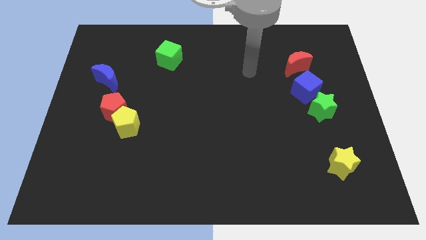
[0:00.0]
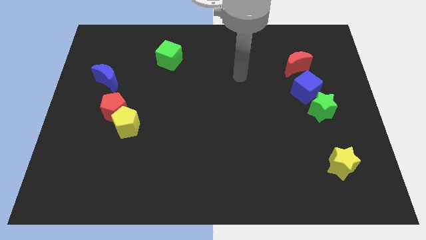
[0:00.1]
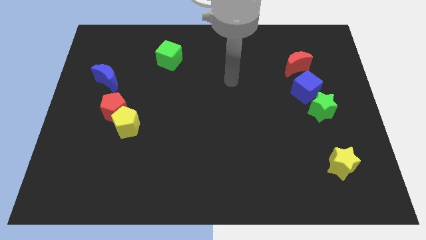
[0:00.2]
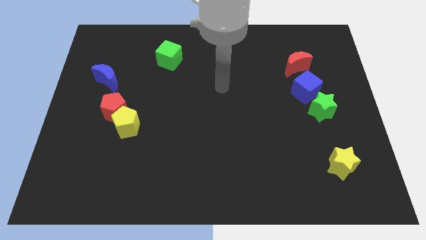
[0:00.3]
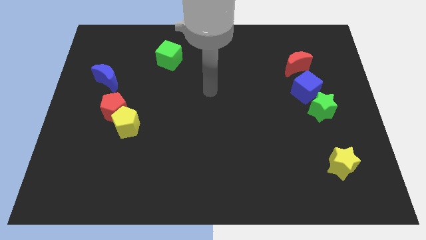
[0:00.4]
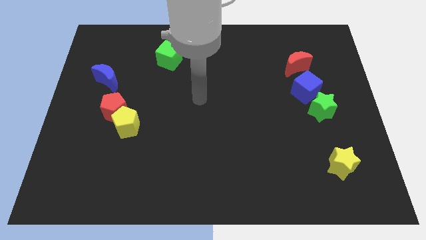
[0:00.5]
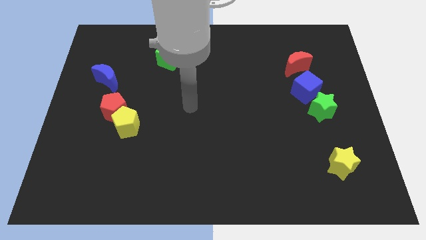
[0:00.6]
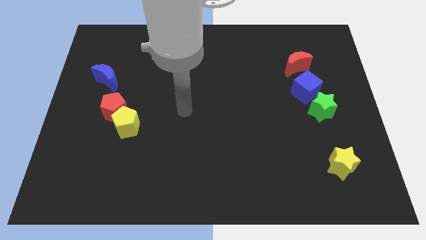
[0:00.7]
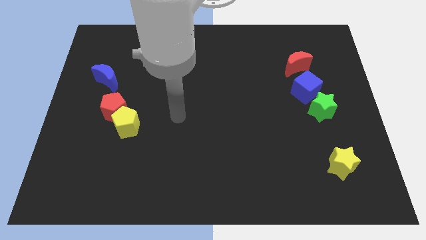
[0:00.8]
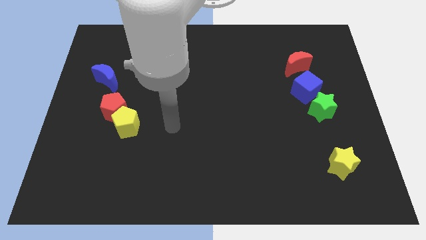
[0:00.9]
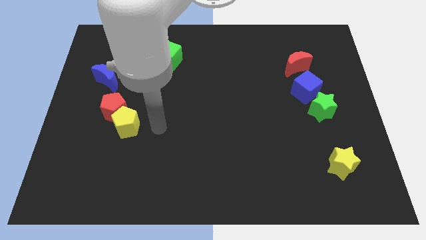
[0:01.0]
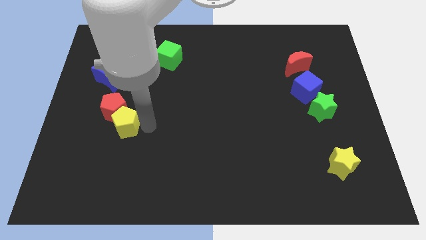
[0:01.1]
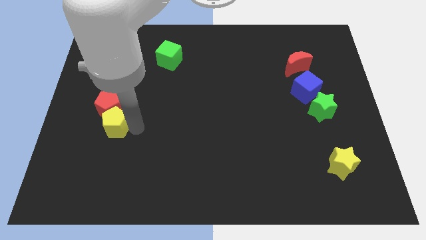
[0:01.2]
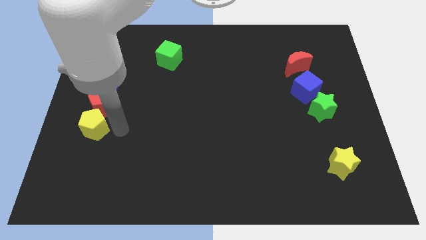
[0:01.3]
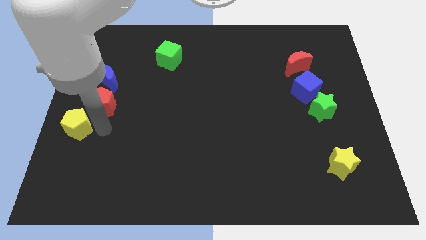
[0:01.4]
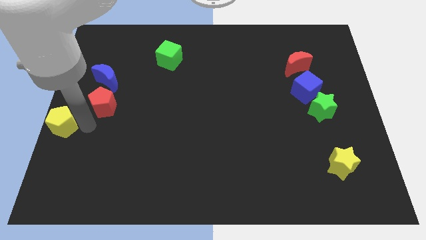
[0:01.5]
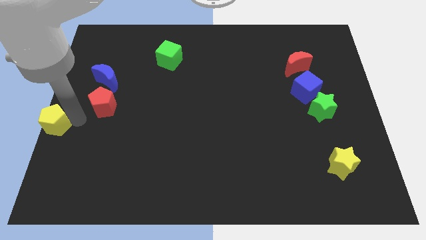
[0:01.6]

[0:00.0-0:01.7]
pull the red pentagon apart from the yellow pentagon

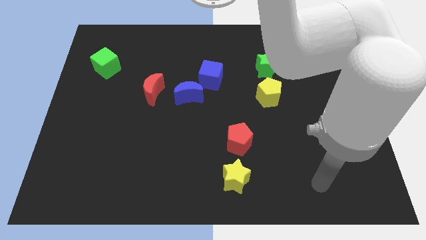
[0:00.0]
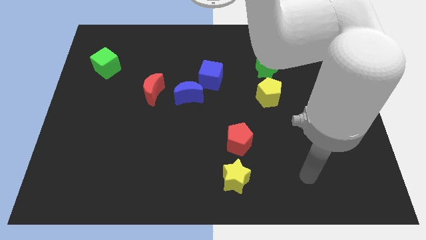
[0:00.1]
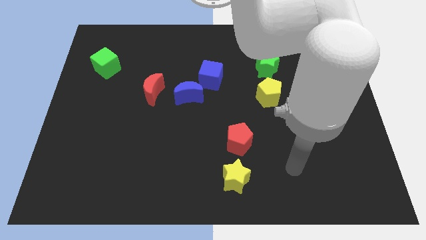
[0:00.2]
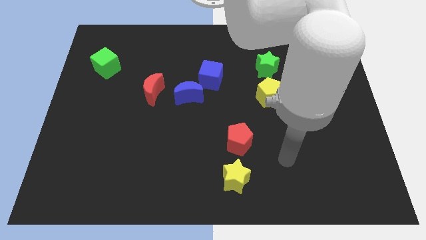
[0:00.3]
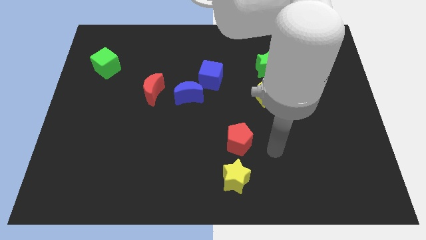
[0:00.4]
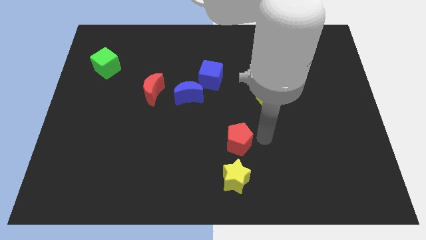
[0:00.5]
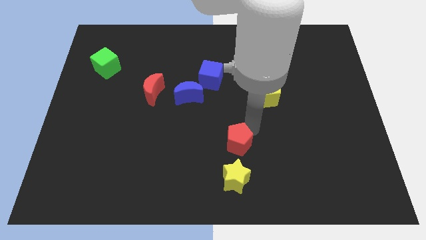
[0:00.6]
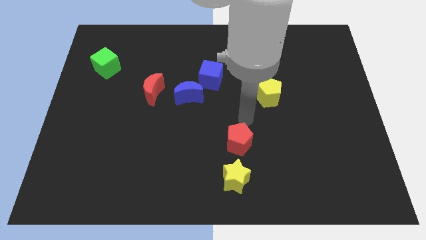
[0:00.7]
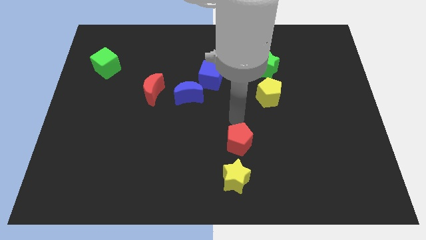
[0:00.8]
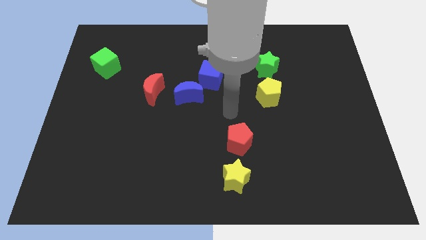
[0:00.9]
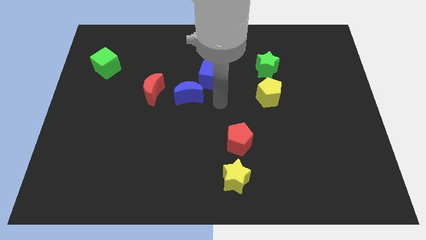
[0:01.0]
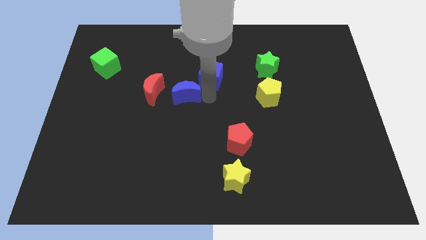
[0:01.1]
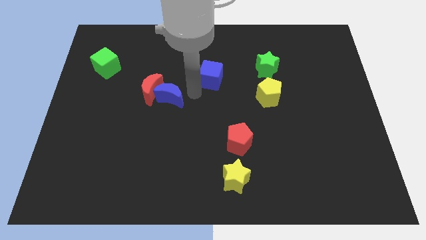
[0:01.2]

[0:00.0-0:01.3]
pull the blue cube apart from the blue moon

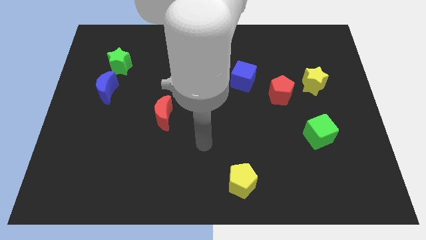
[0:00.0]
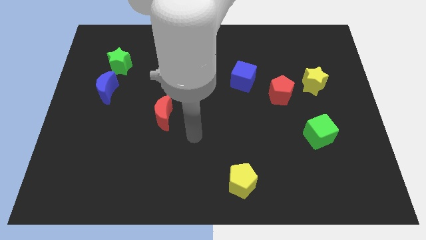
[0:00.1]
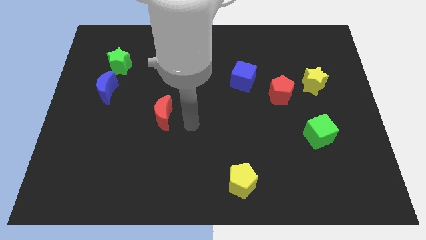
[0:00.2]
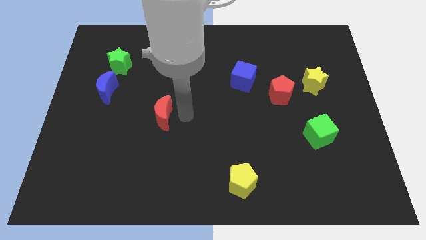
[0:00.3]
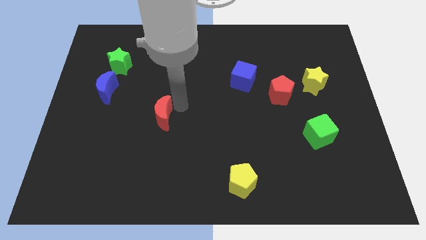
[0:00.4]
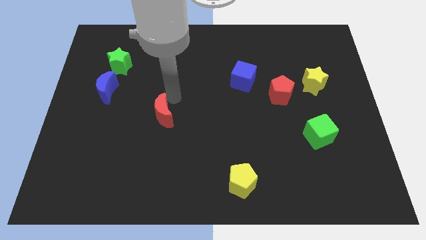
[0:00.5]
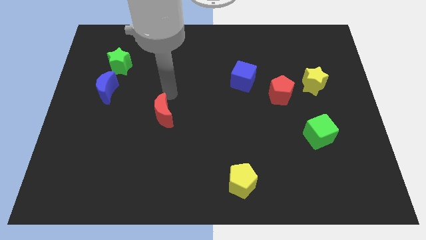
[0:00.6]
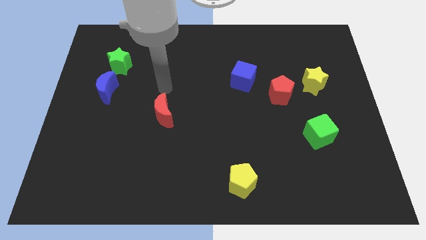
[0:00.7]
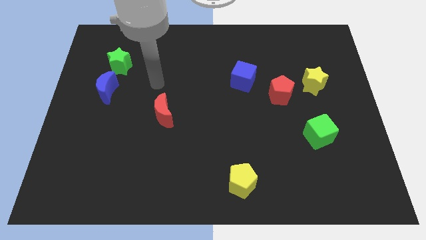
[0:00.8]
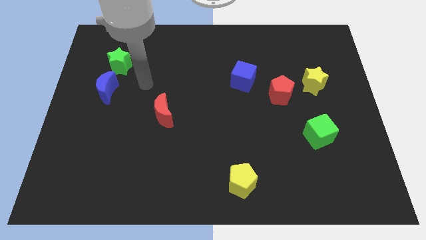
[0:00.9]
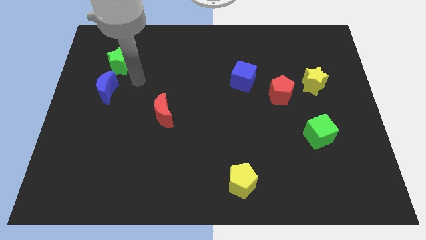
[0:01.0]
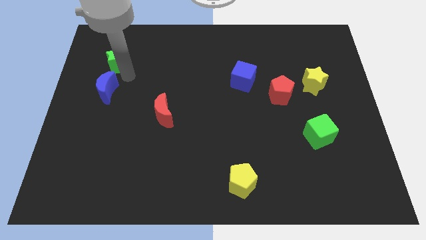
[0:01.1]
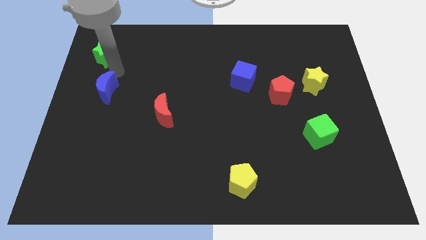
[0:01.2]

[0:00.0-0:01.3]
pull the blue moon apart from the green star

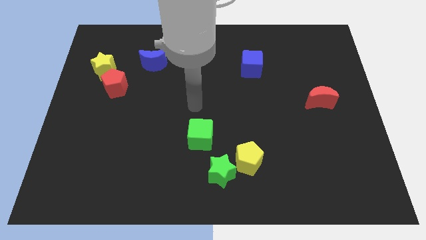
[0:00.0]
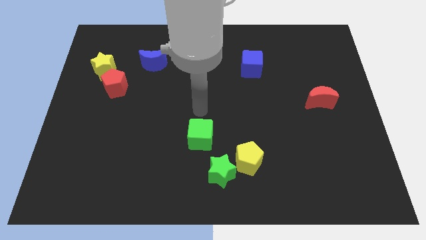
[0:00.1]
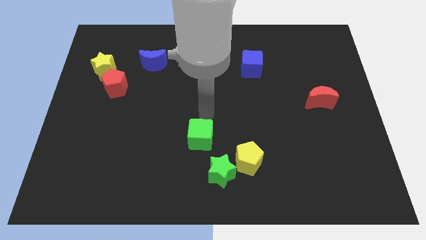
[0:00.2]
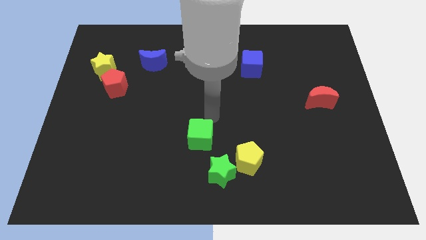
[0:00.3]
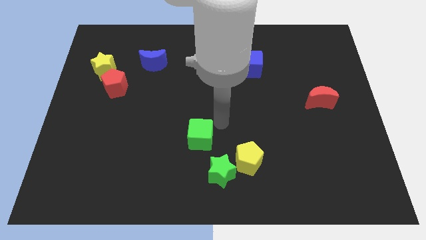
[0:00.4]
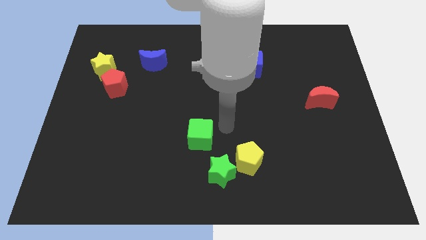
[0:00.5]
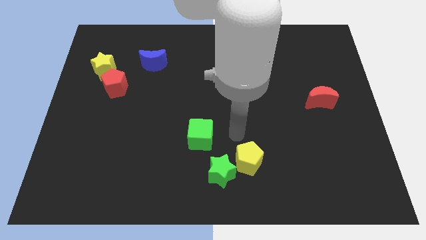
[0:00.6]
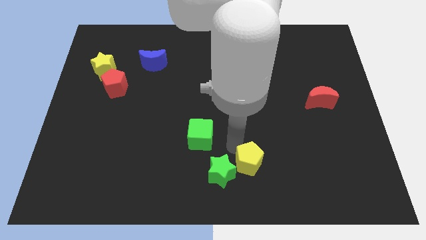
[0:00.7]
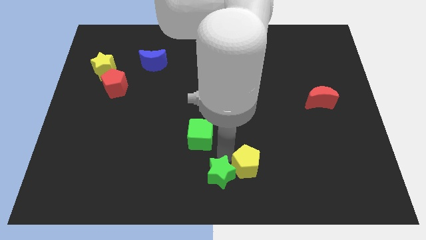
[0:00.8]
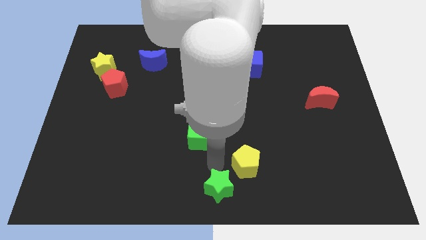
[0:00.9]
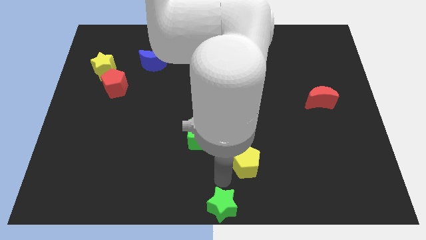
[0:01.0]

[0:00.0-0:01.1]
move the yellow pentagon away from the green star

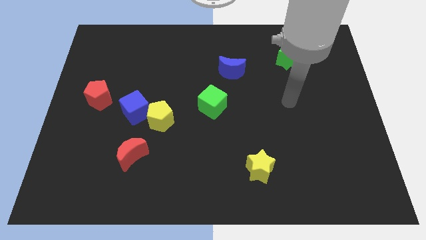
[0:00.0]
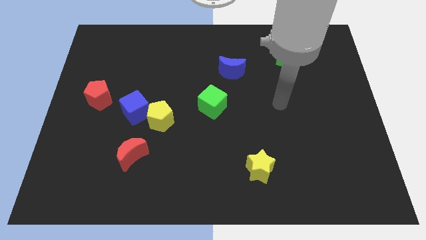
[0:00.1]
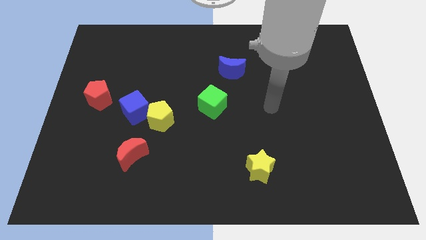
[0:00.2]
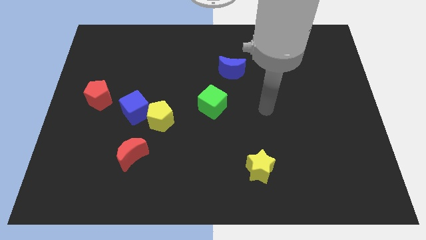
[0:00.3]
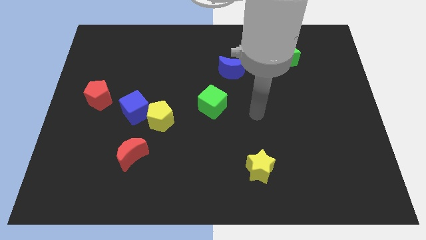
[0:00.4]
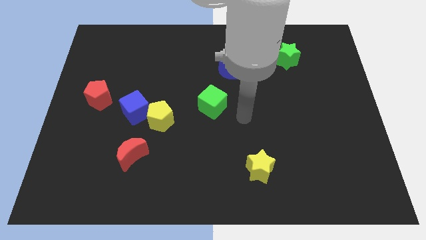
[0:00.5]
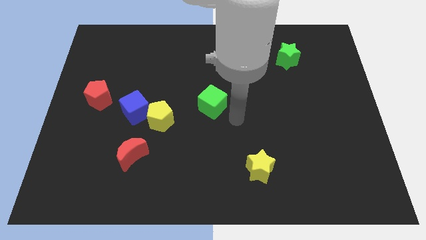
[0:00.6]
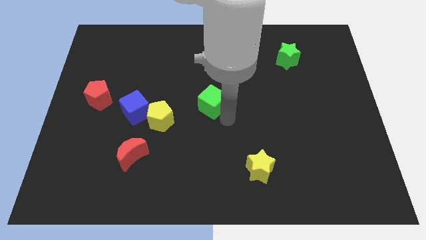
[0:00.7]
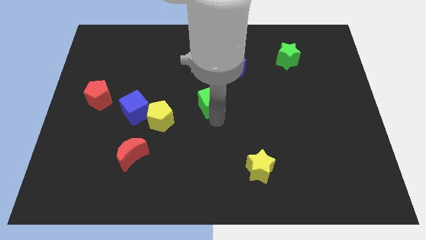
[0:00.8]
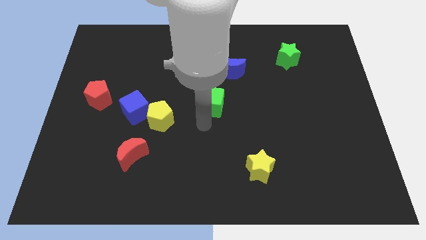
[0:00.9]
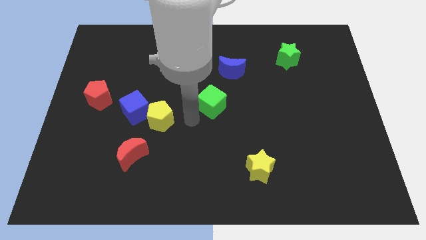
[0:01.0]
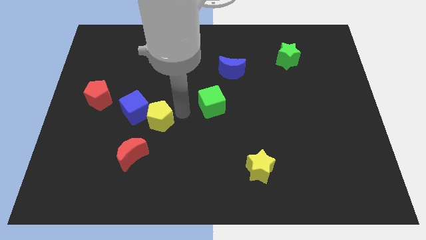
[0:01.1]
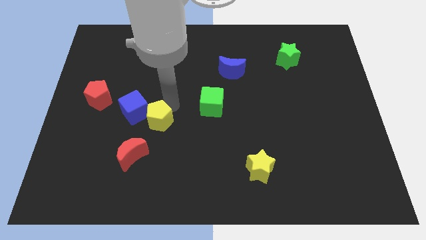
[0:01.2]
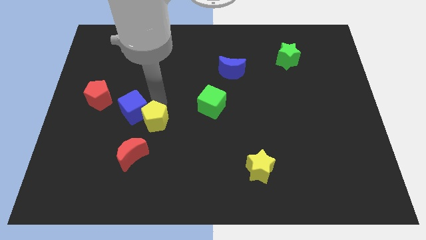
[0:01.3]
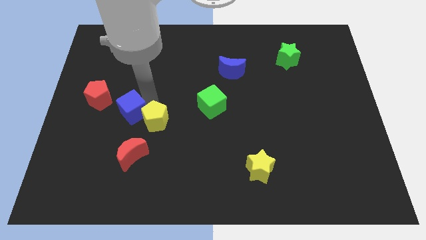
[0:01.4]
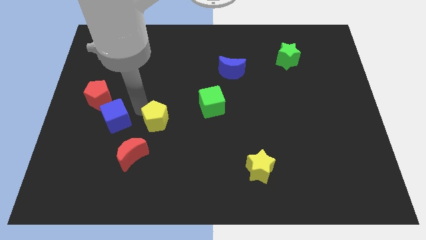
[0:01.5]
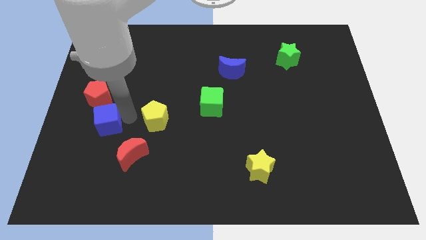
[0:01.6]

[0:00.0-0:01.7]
separate the yellow pentagon from the blue cube

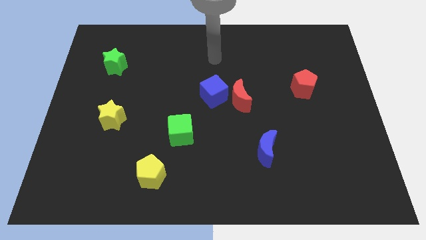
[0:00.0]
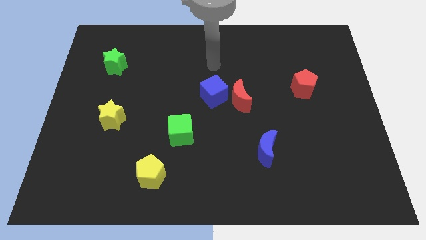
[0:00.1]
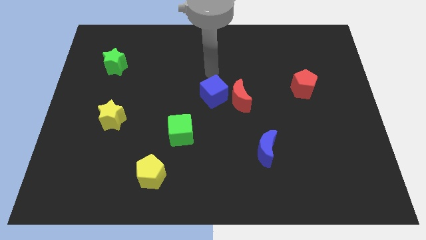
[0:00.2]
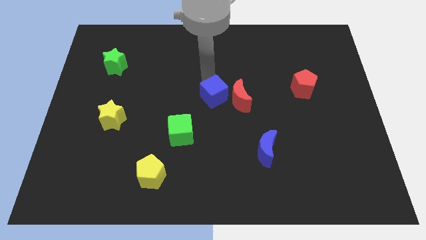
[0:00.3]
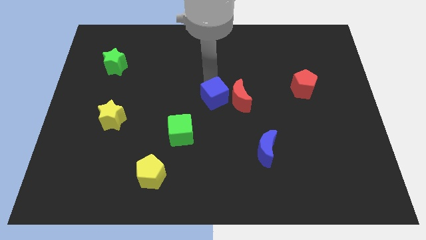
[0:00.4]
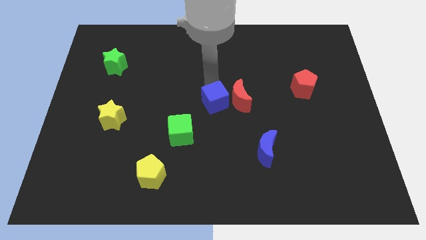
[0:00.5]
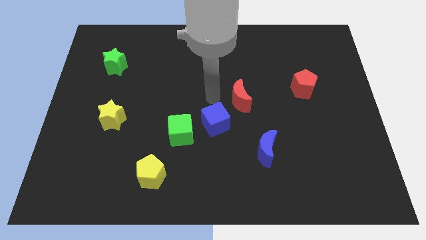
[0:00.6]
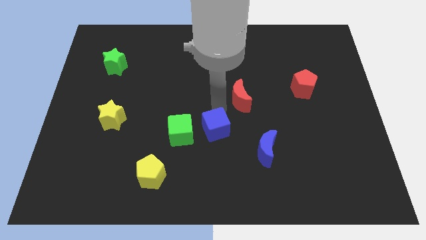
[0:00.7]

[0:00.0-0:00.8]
pull the red moon apart from the blue cube

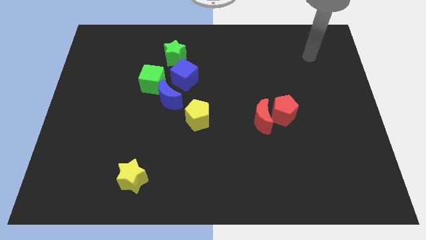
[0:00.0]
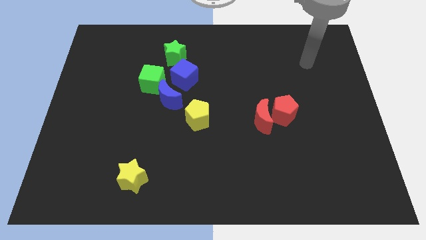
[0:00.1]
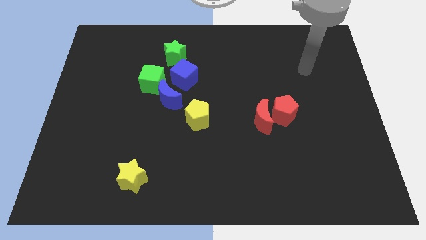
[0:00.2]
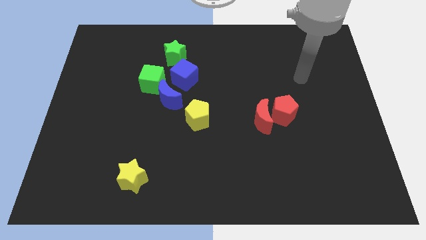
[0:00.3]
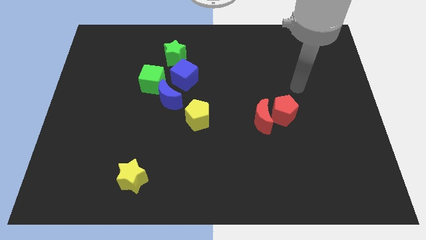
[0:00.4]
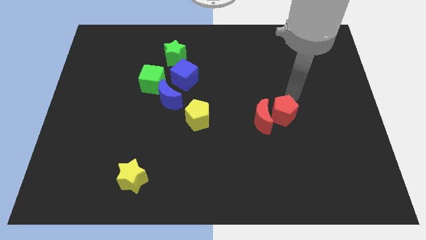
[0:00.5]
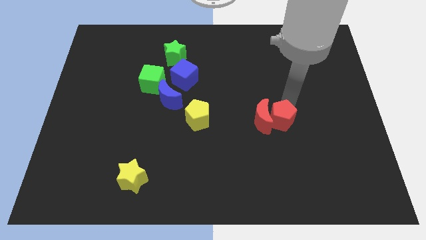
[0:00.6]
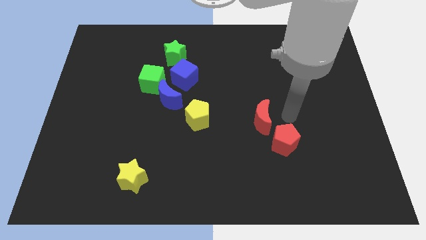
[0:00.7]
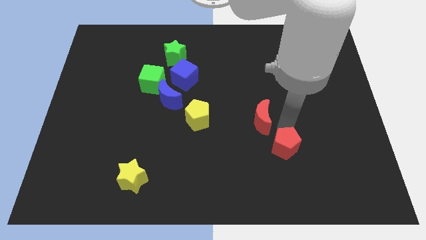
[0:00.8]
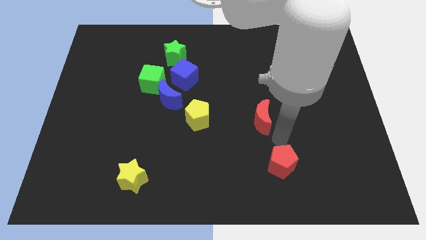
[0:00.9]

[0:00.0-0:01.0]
move the red moon away from the red pentagon

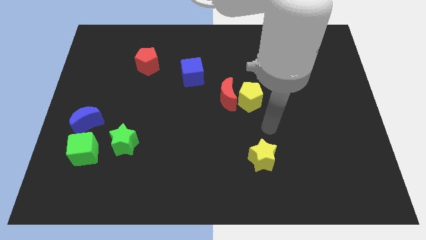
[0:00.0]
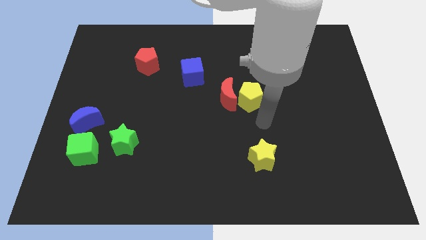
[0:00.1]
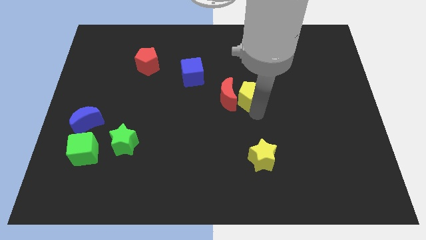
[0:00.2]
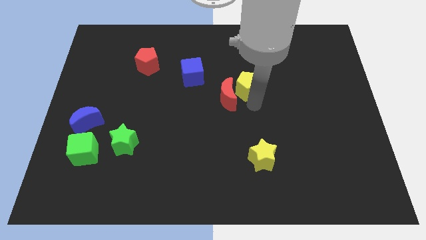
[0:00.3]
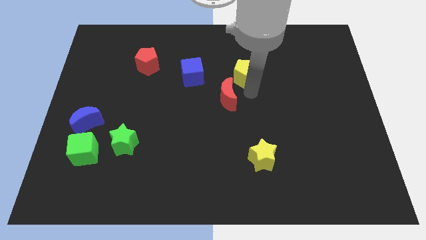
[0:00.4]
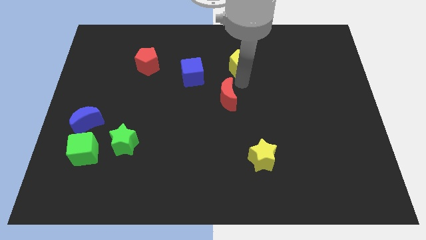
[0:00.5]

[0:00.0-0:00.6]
pull the red moon apart from the yellow pentagon
